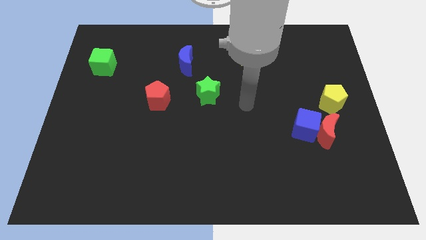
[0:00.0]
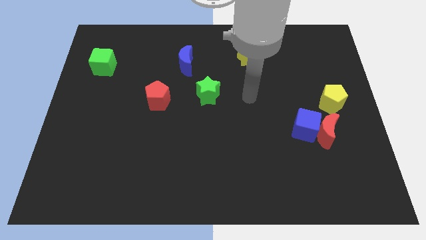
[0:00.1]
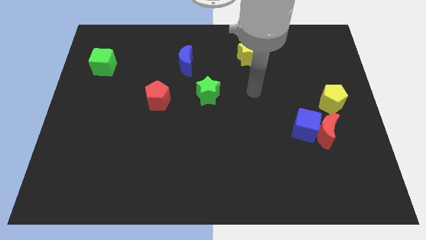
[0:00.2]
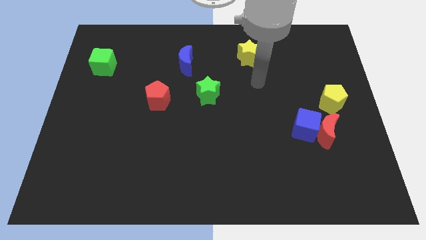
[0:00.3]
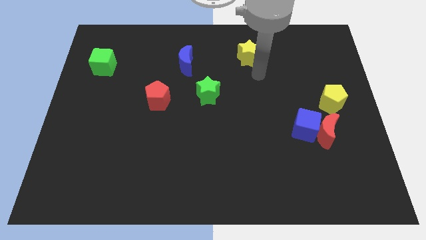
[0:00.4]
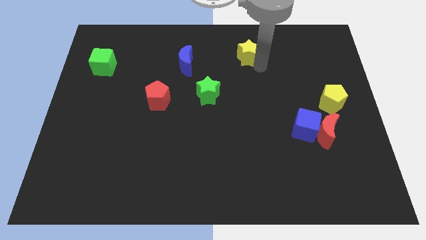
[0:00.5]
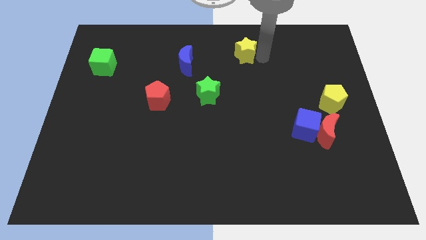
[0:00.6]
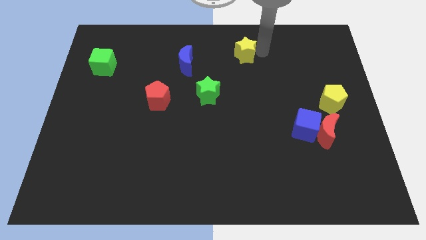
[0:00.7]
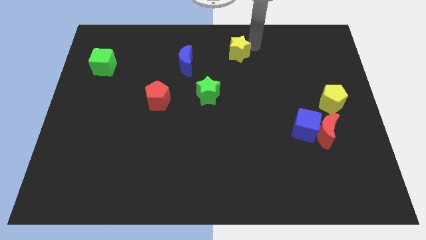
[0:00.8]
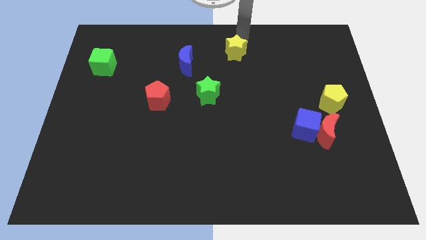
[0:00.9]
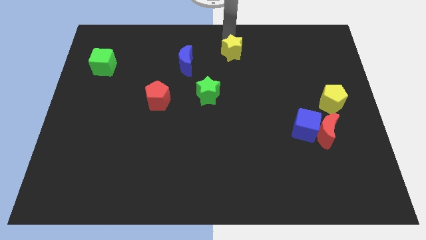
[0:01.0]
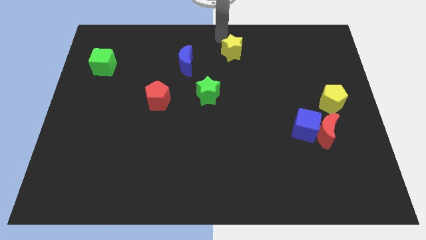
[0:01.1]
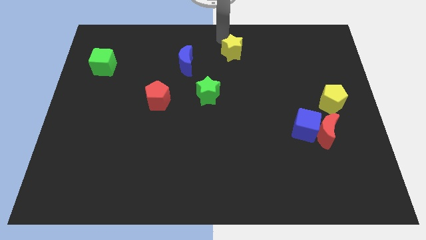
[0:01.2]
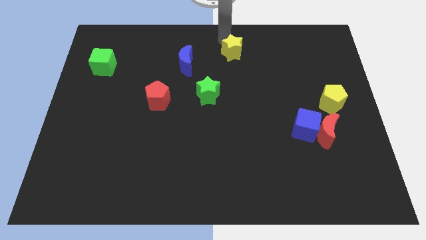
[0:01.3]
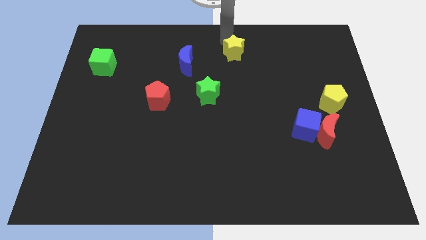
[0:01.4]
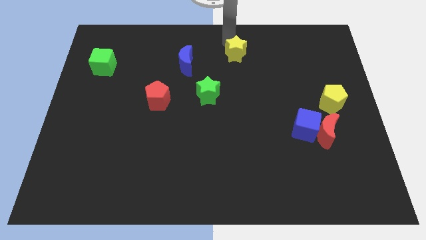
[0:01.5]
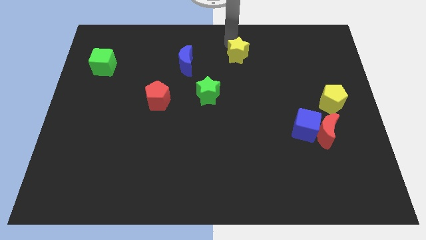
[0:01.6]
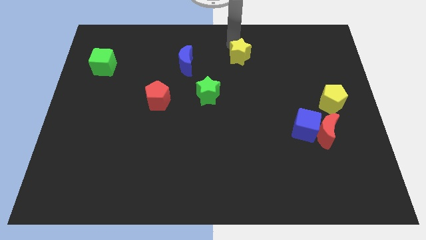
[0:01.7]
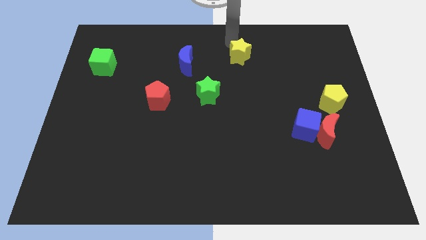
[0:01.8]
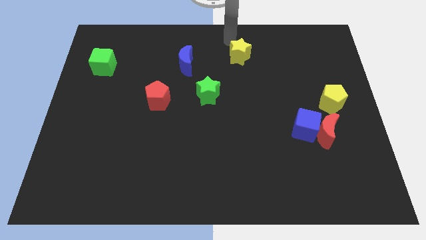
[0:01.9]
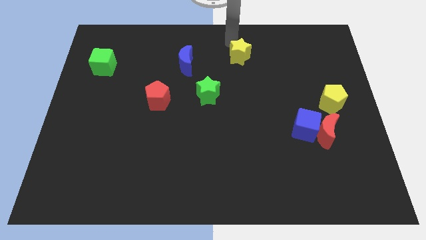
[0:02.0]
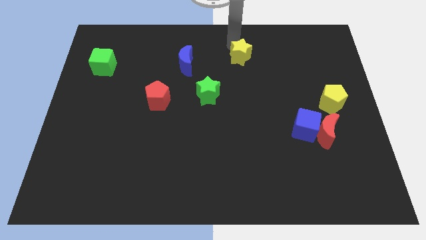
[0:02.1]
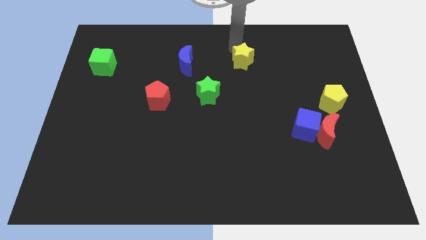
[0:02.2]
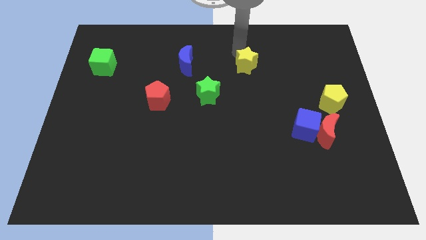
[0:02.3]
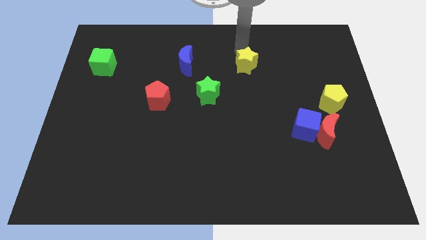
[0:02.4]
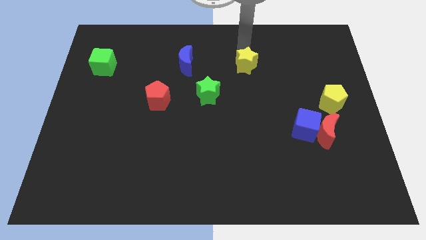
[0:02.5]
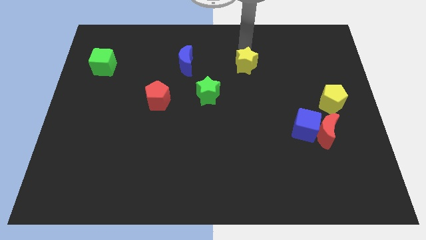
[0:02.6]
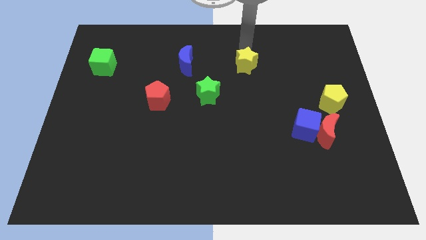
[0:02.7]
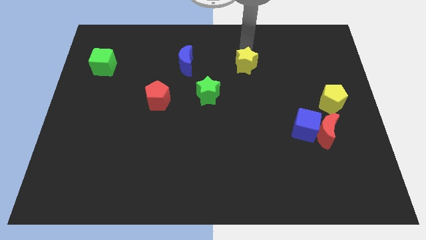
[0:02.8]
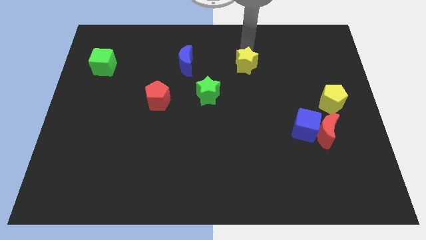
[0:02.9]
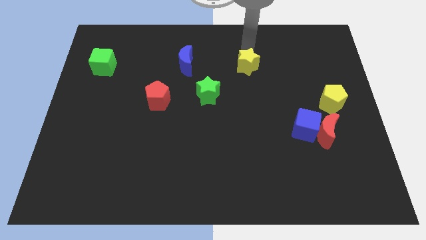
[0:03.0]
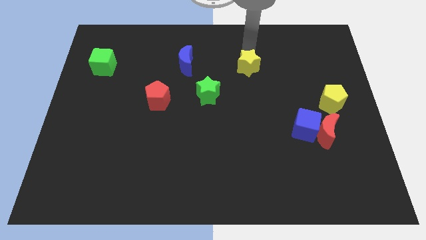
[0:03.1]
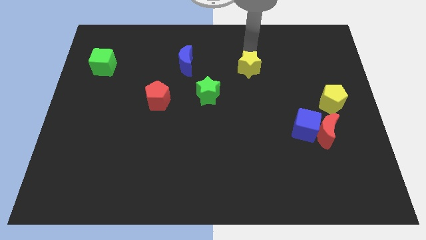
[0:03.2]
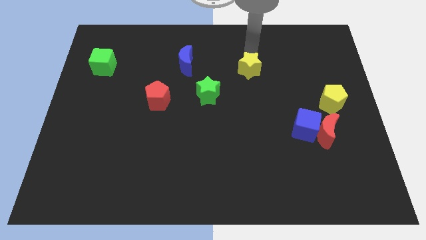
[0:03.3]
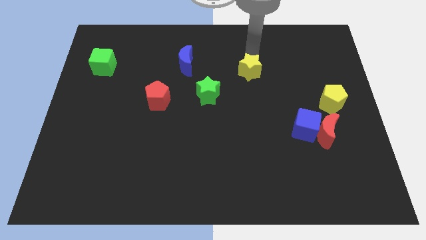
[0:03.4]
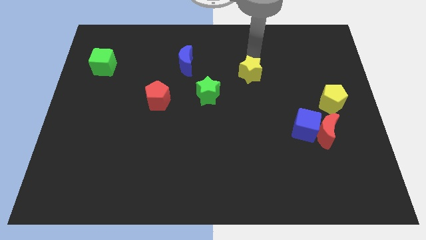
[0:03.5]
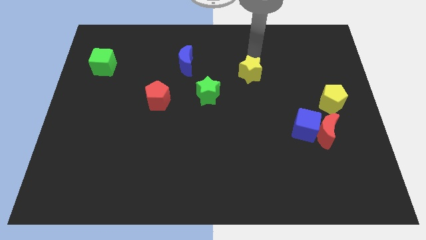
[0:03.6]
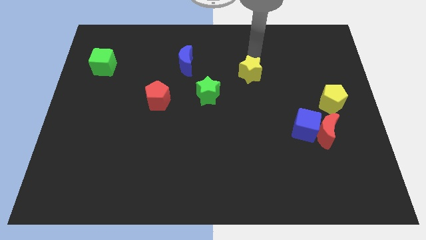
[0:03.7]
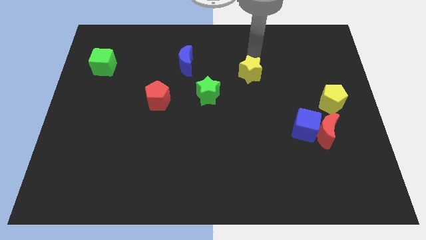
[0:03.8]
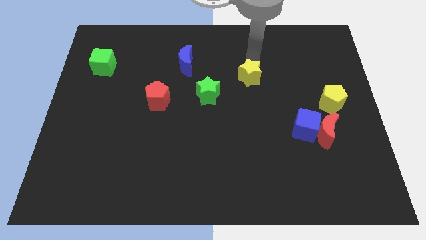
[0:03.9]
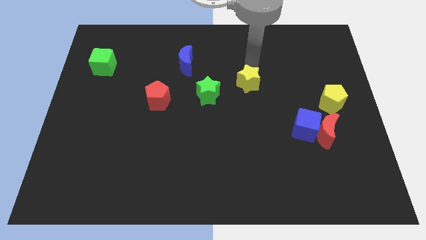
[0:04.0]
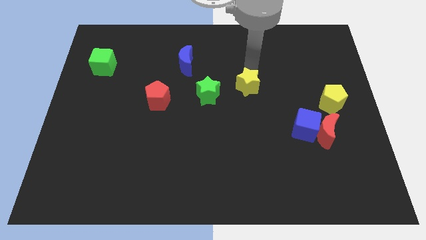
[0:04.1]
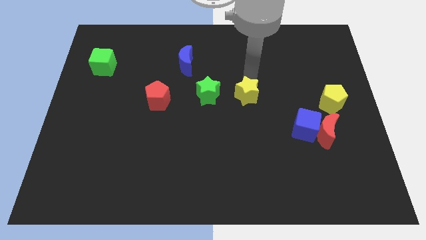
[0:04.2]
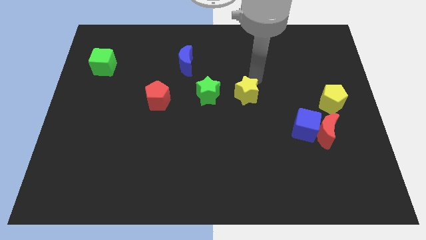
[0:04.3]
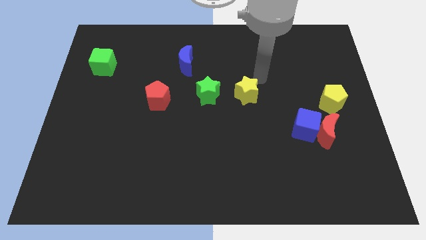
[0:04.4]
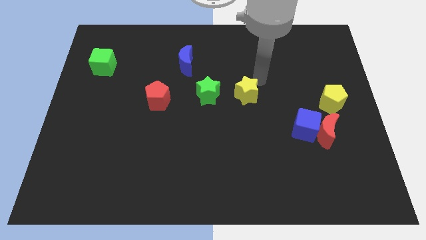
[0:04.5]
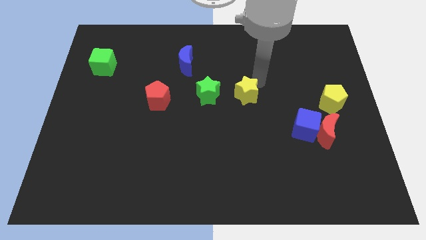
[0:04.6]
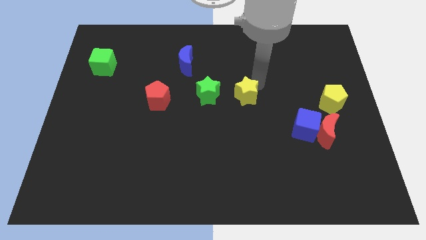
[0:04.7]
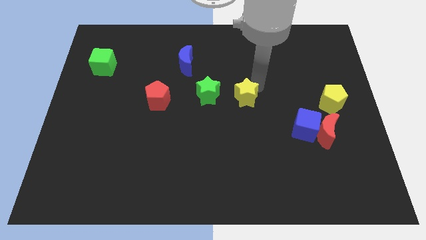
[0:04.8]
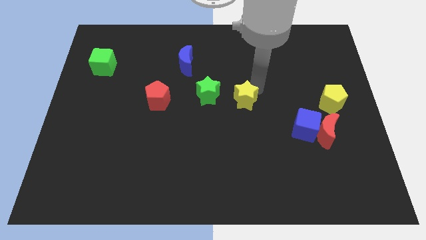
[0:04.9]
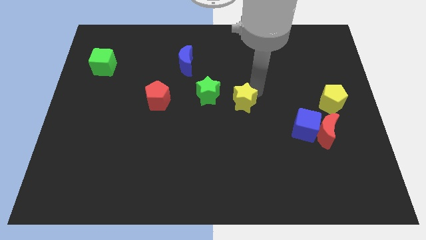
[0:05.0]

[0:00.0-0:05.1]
push the yellow star to the bottom right of the green star

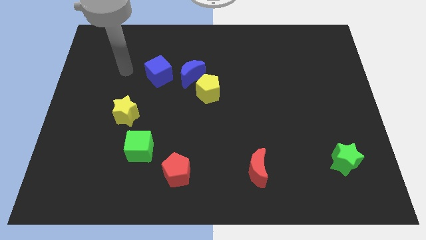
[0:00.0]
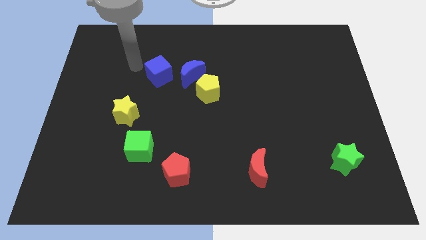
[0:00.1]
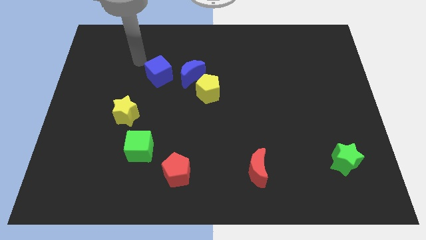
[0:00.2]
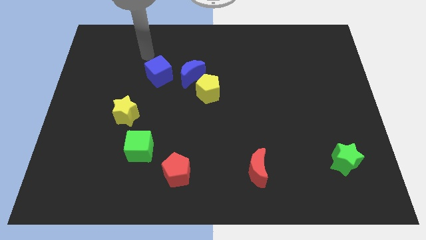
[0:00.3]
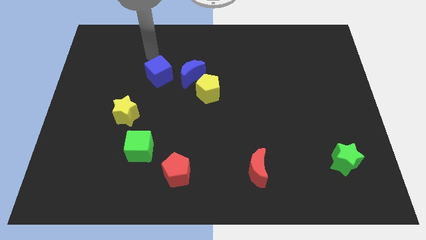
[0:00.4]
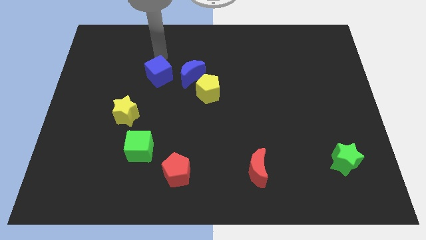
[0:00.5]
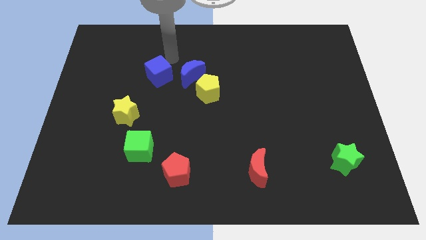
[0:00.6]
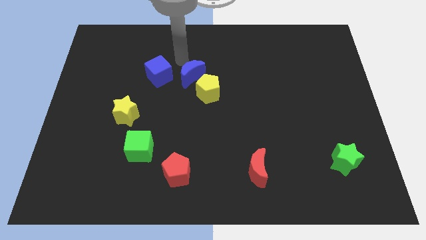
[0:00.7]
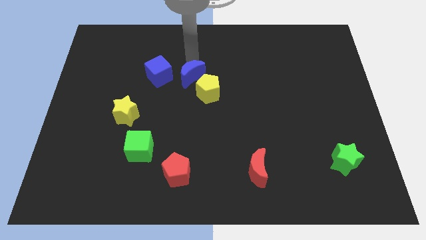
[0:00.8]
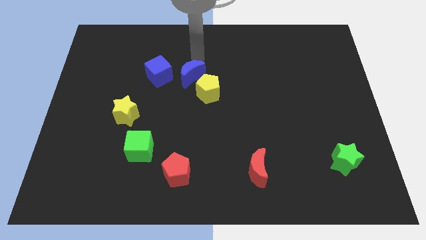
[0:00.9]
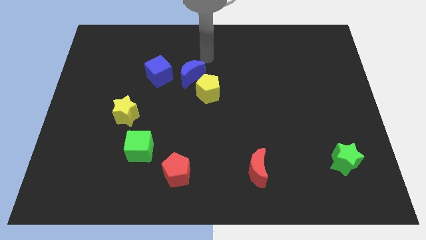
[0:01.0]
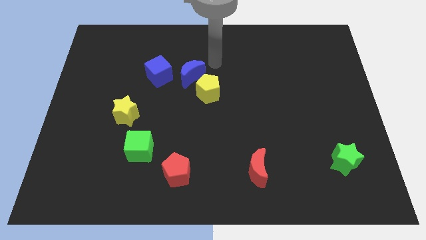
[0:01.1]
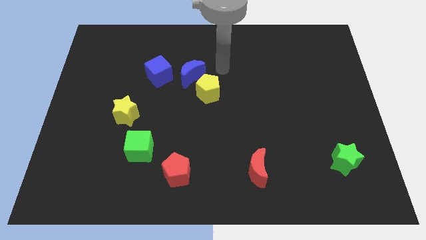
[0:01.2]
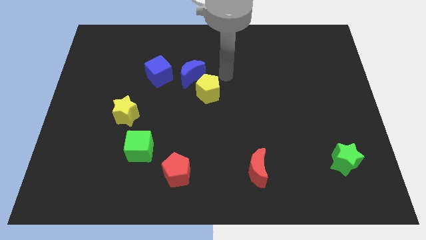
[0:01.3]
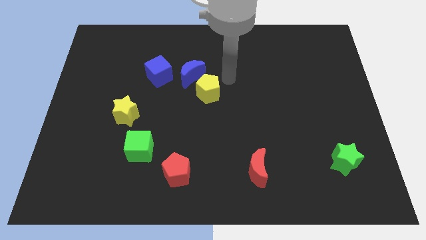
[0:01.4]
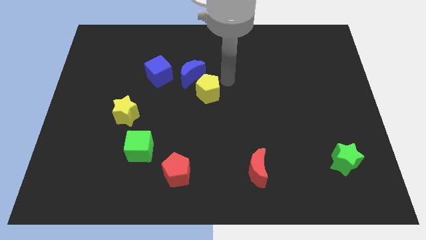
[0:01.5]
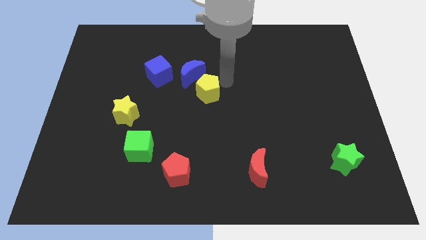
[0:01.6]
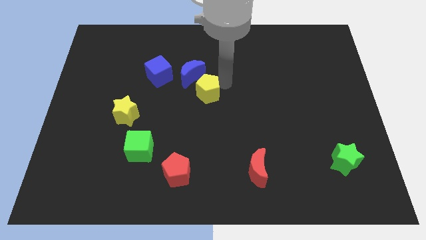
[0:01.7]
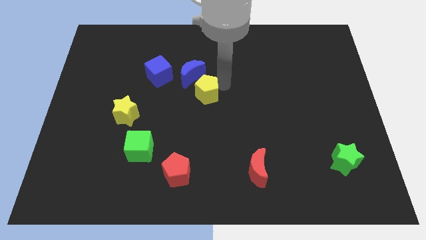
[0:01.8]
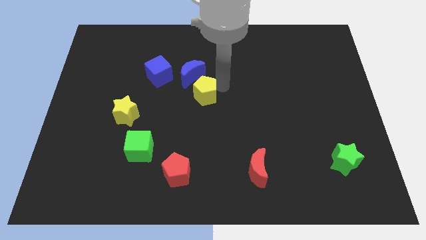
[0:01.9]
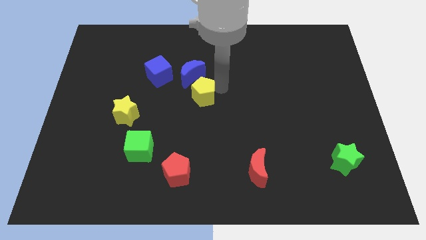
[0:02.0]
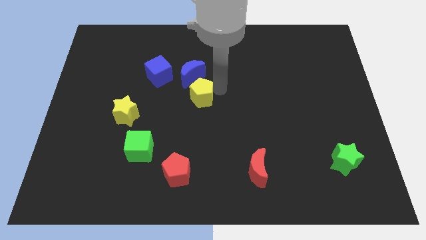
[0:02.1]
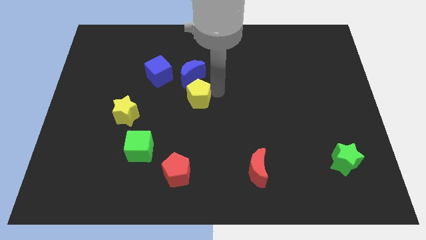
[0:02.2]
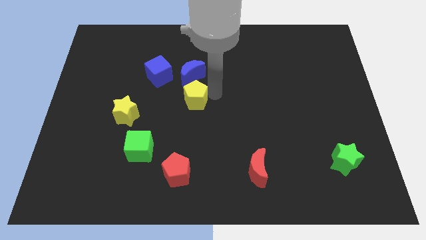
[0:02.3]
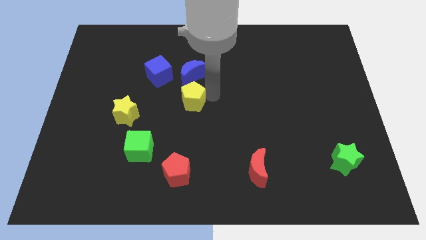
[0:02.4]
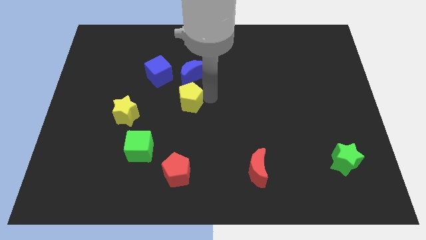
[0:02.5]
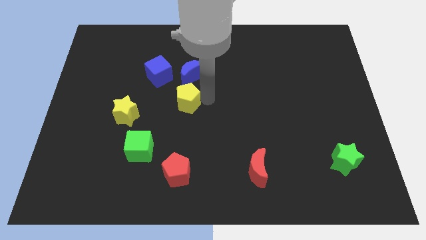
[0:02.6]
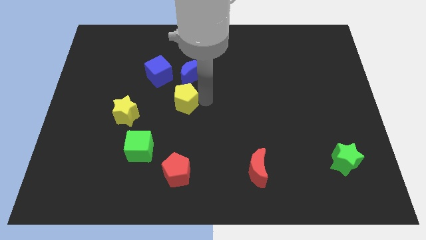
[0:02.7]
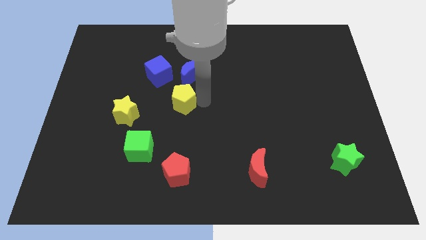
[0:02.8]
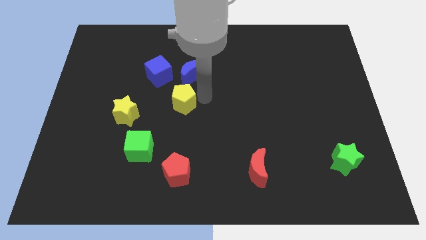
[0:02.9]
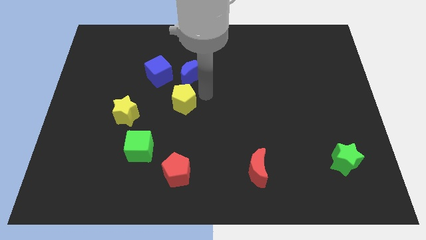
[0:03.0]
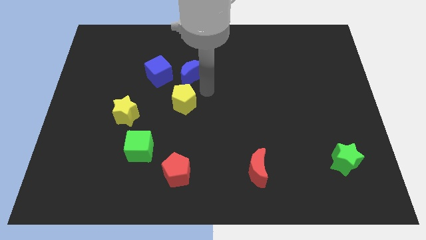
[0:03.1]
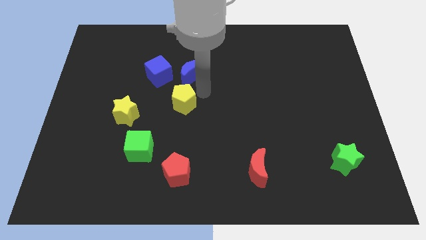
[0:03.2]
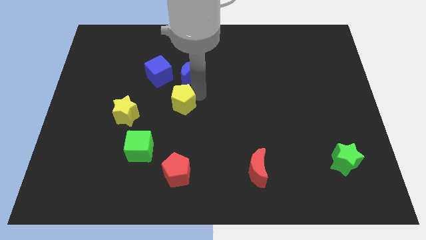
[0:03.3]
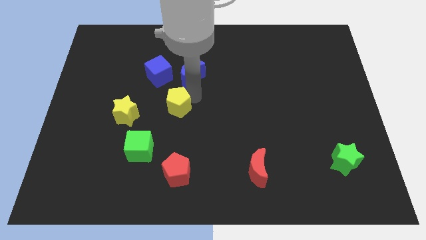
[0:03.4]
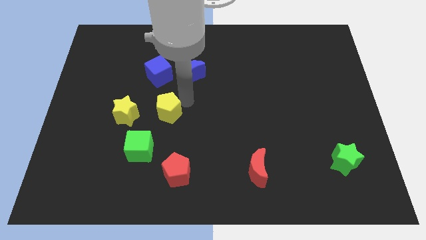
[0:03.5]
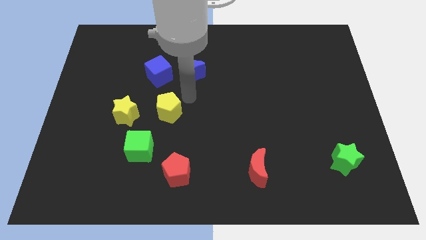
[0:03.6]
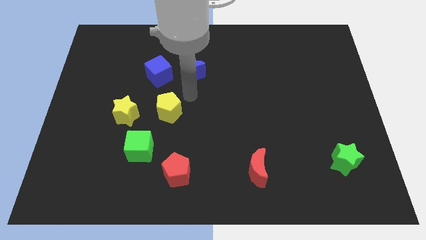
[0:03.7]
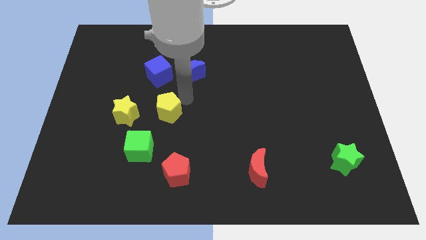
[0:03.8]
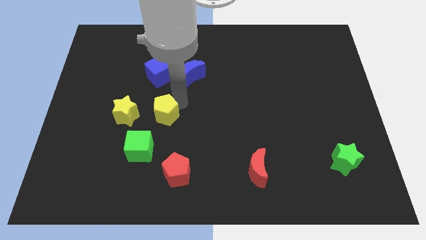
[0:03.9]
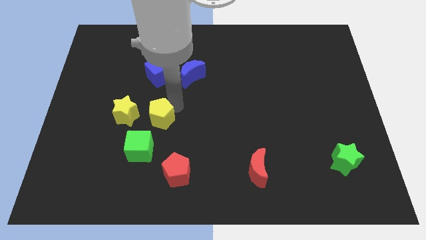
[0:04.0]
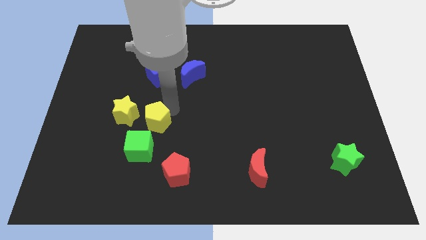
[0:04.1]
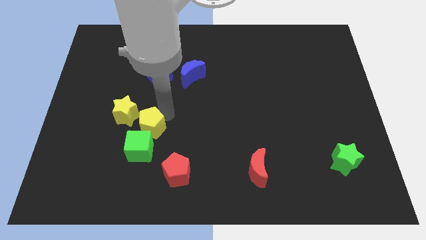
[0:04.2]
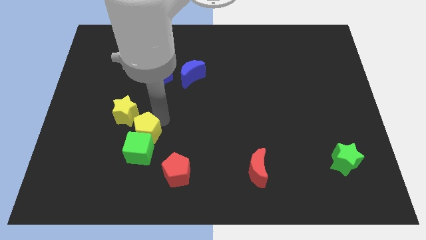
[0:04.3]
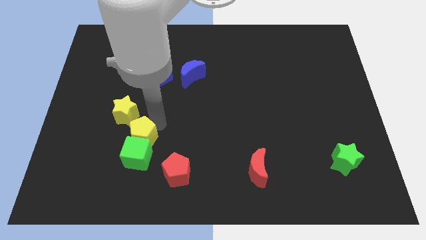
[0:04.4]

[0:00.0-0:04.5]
push the yellow pentagon to the bottom of the yellow star
